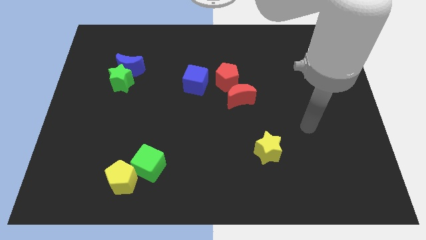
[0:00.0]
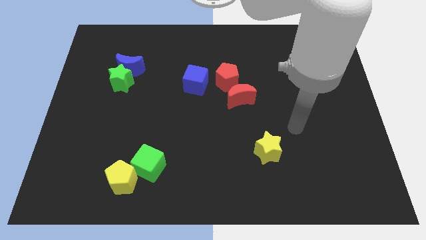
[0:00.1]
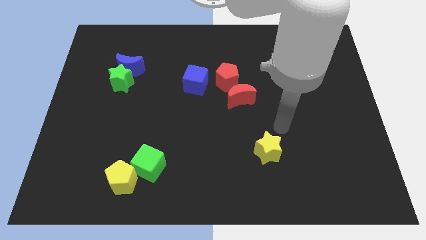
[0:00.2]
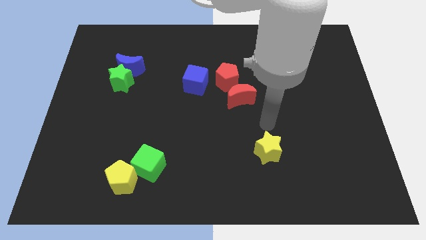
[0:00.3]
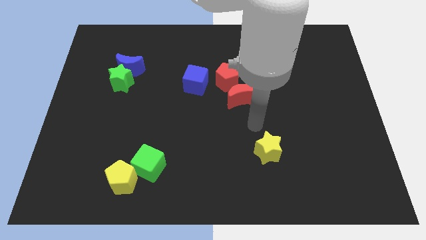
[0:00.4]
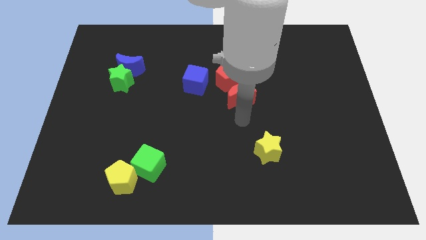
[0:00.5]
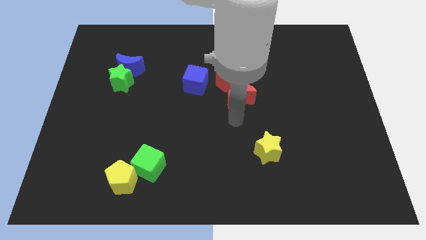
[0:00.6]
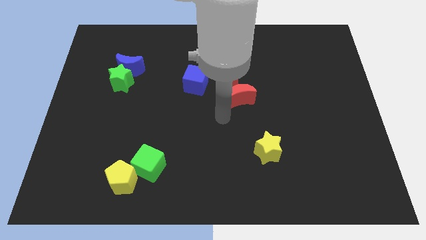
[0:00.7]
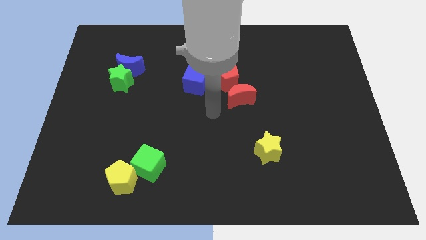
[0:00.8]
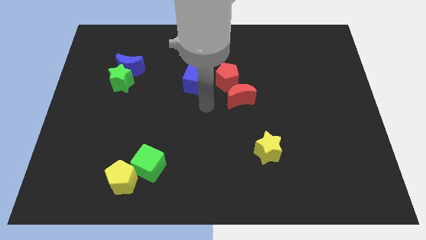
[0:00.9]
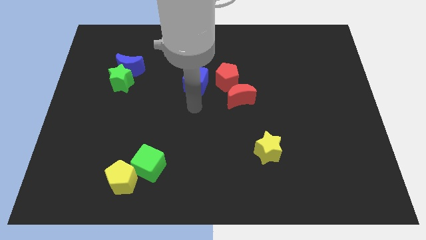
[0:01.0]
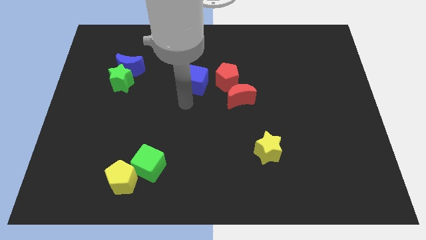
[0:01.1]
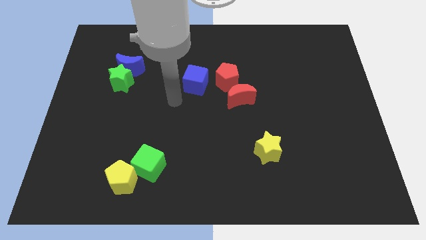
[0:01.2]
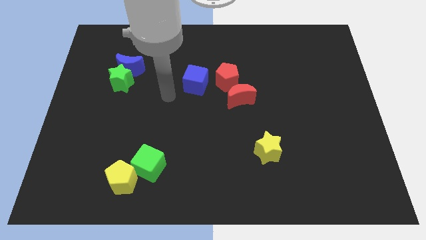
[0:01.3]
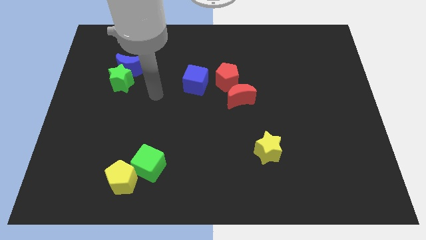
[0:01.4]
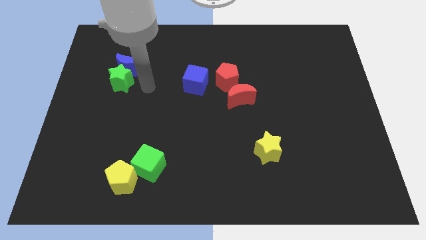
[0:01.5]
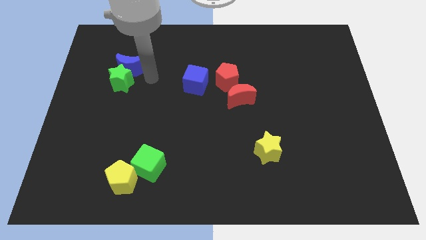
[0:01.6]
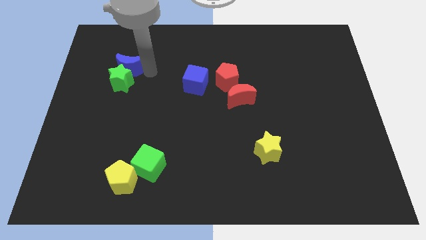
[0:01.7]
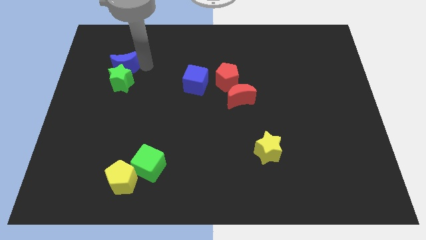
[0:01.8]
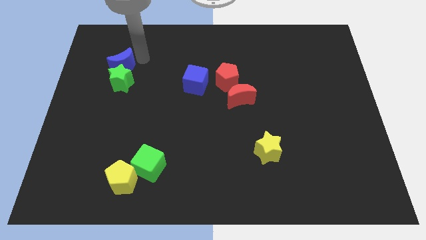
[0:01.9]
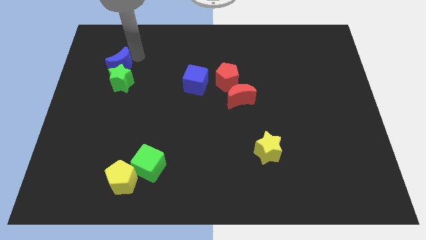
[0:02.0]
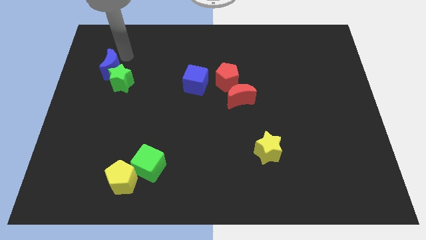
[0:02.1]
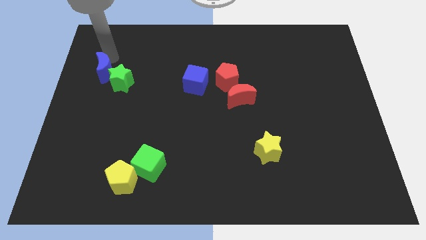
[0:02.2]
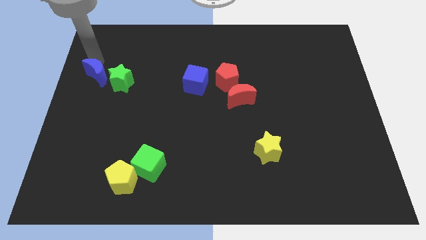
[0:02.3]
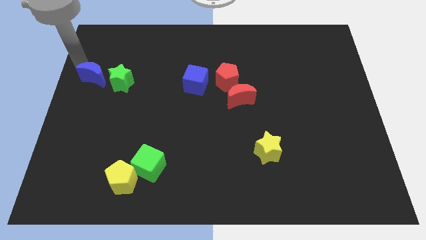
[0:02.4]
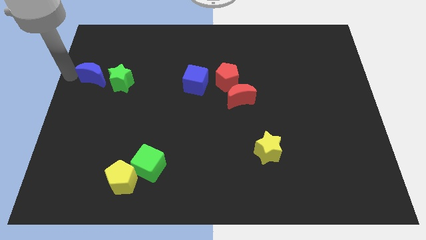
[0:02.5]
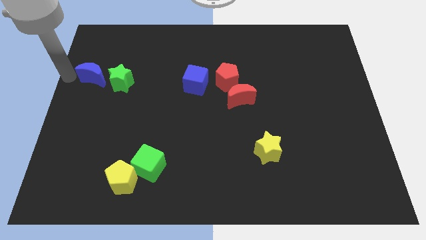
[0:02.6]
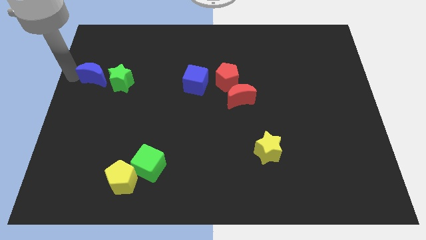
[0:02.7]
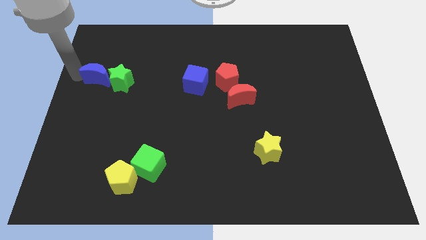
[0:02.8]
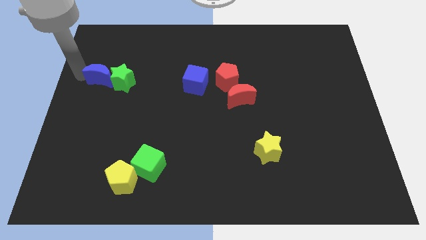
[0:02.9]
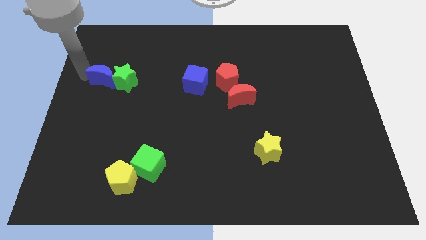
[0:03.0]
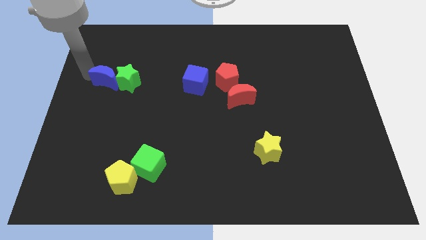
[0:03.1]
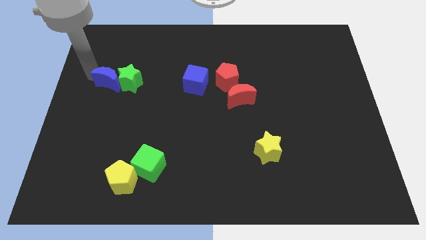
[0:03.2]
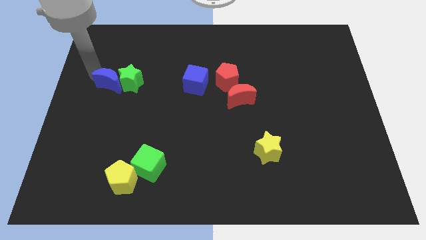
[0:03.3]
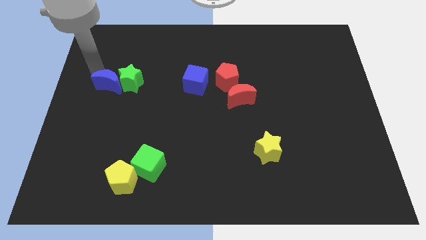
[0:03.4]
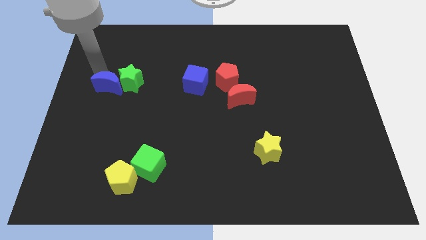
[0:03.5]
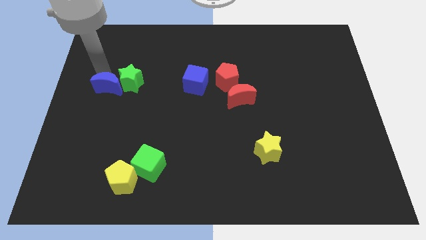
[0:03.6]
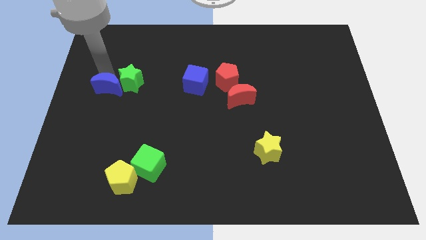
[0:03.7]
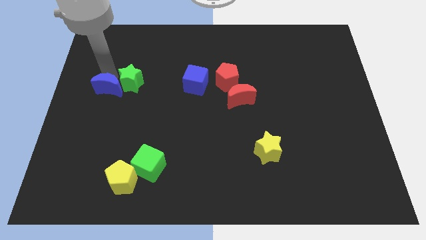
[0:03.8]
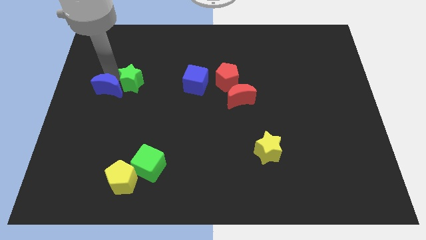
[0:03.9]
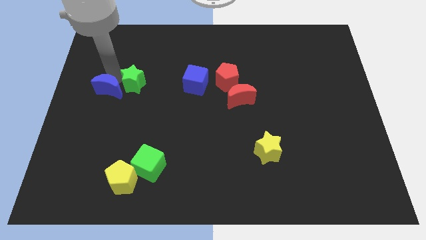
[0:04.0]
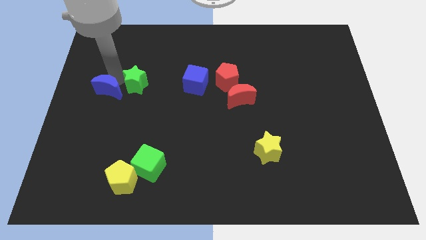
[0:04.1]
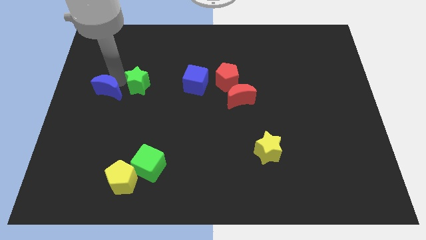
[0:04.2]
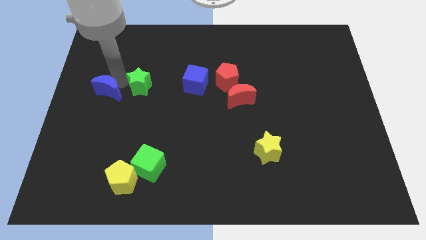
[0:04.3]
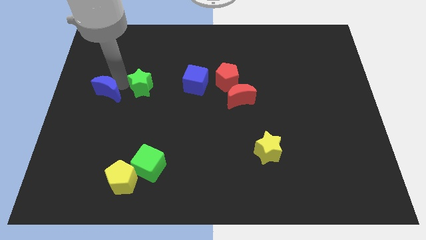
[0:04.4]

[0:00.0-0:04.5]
move the blue moon a bit down

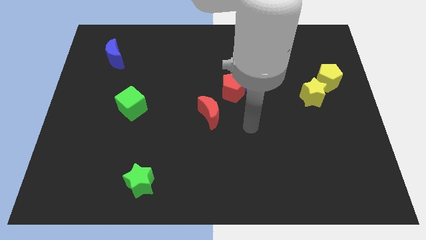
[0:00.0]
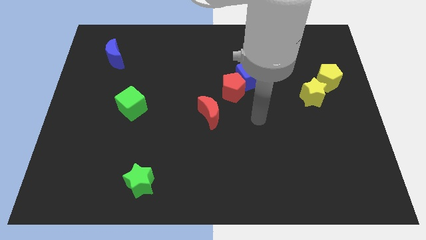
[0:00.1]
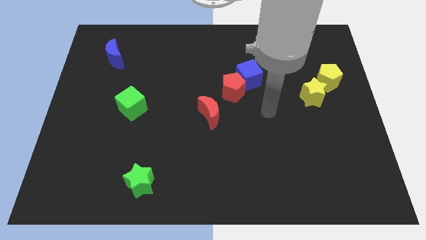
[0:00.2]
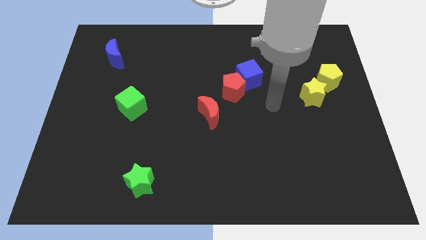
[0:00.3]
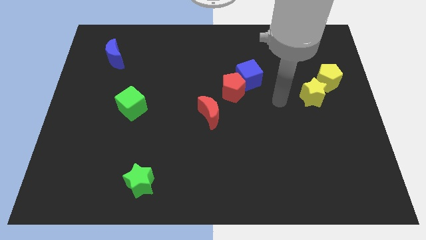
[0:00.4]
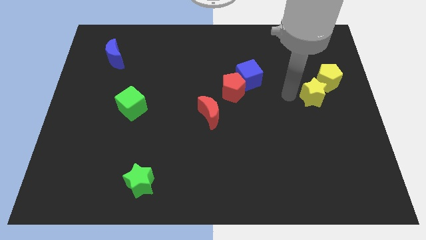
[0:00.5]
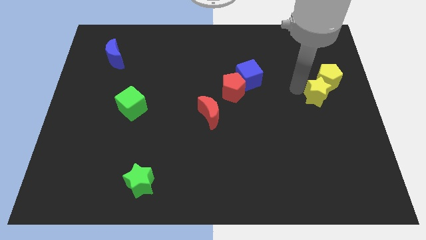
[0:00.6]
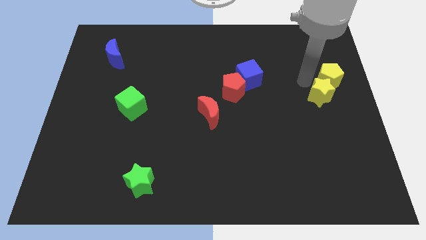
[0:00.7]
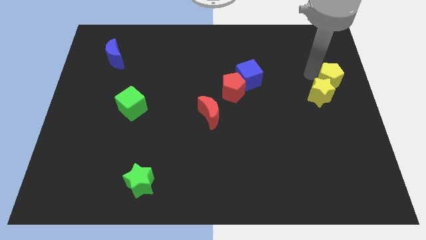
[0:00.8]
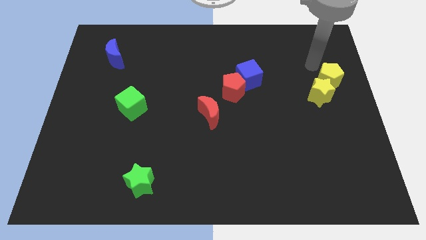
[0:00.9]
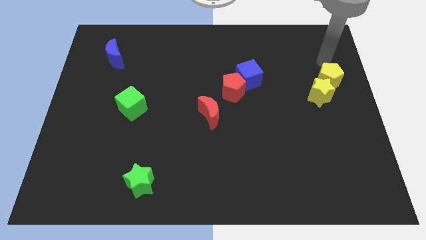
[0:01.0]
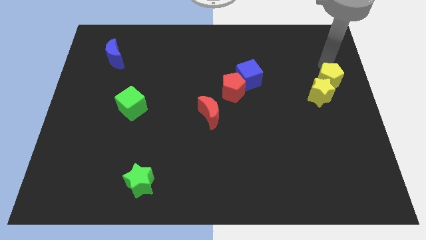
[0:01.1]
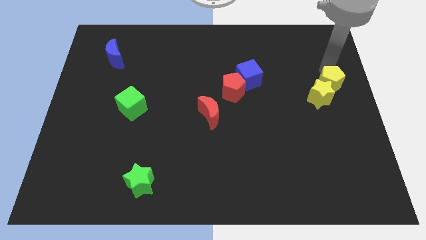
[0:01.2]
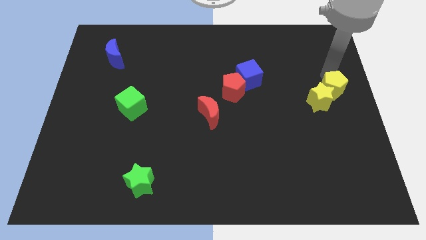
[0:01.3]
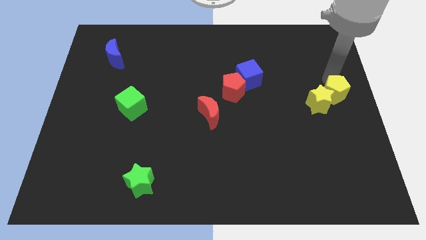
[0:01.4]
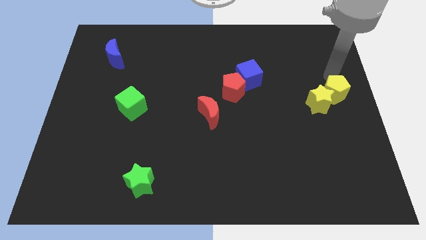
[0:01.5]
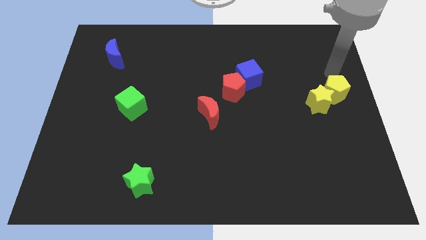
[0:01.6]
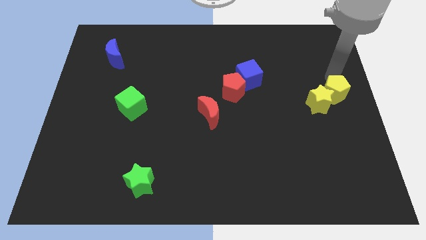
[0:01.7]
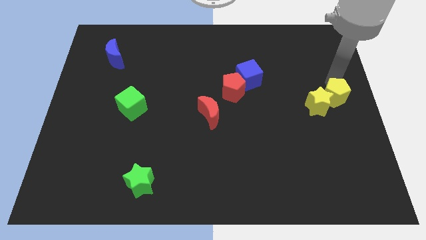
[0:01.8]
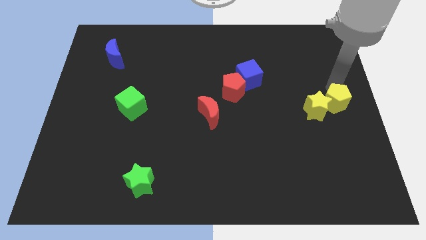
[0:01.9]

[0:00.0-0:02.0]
move the yellow pentagon downwards somewhat

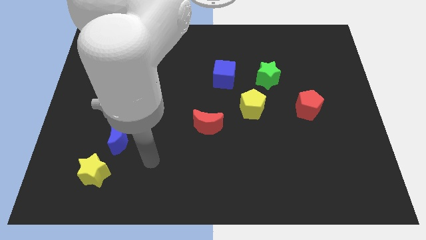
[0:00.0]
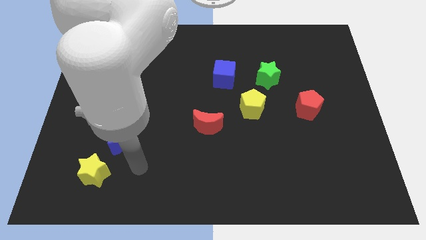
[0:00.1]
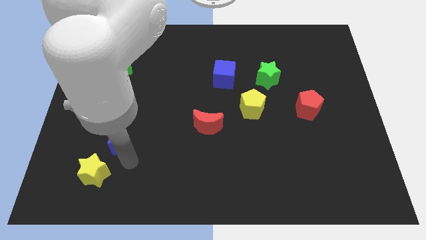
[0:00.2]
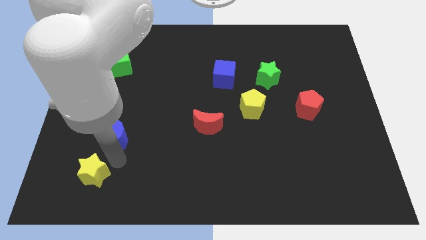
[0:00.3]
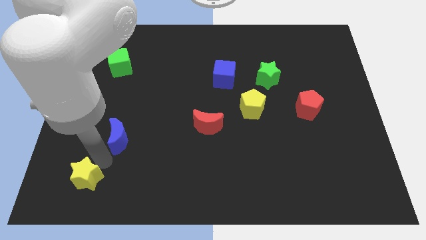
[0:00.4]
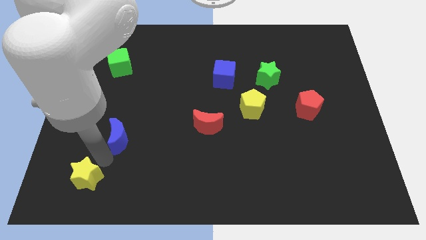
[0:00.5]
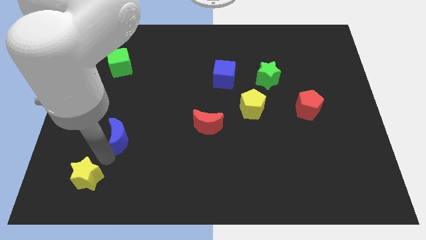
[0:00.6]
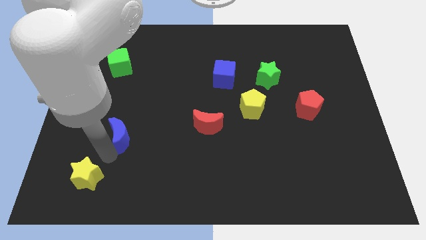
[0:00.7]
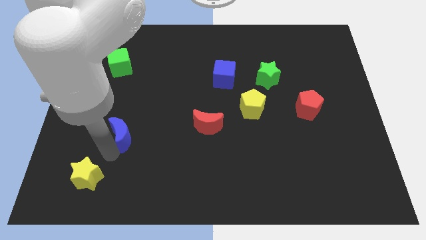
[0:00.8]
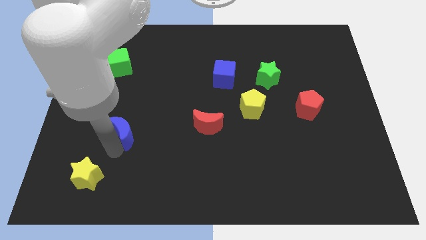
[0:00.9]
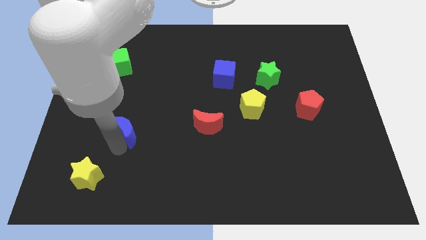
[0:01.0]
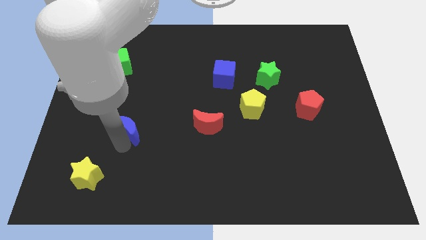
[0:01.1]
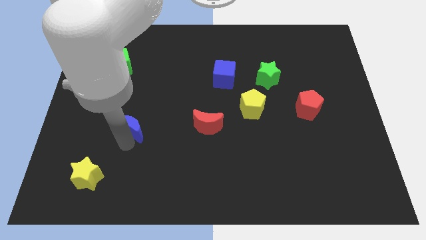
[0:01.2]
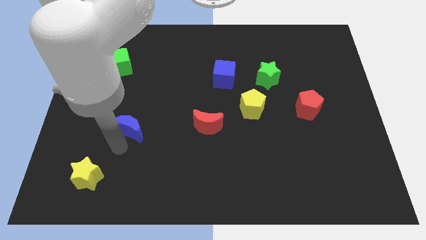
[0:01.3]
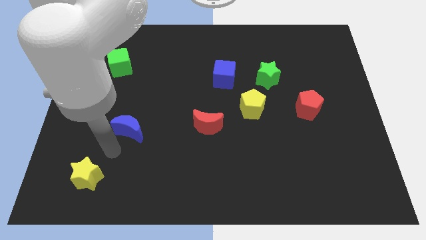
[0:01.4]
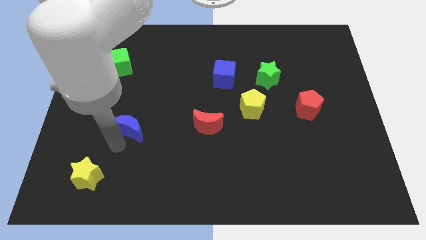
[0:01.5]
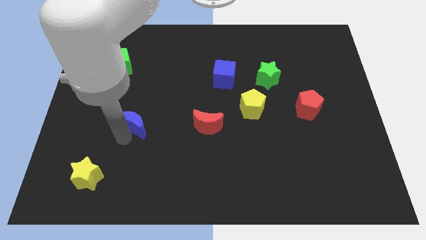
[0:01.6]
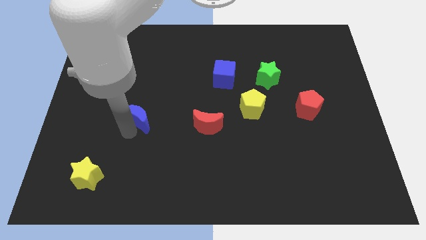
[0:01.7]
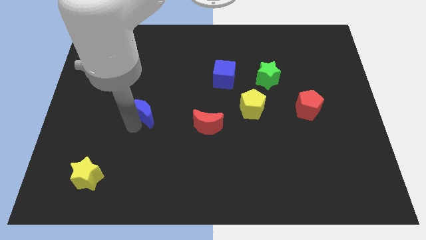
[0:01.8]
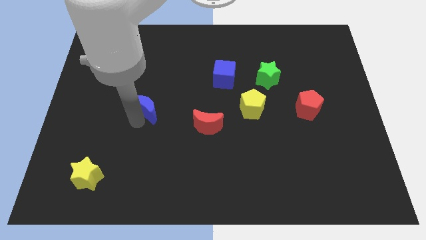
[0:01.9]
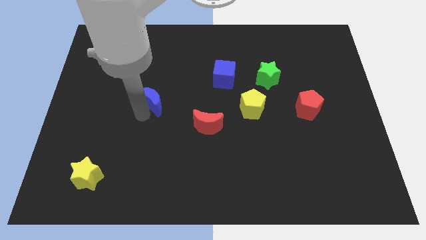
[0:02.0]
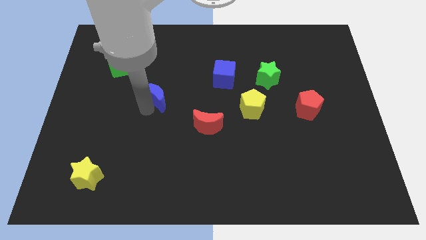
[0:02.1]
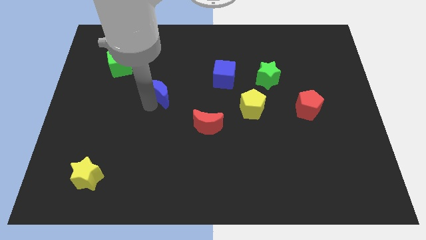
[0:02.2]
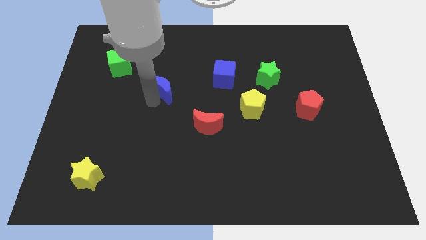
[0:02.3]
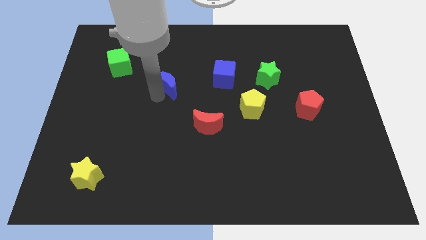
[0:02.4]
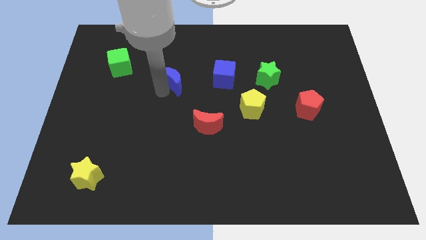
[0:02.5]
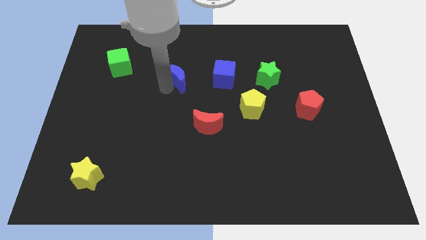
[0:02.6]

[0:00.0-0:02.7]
move the blue moon upwards and then to the right
